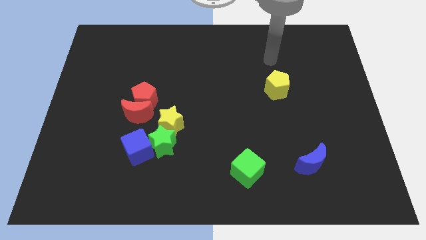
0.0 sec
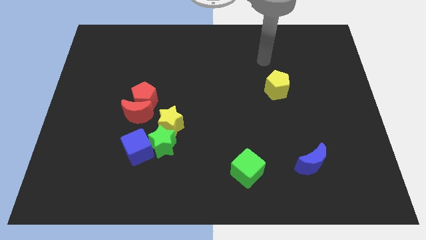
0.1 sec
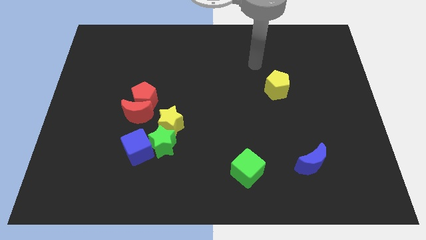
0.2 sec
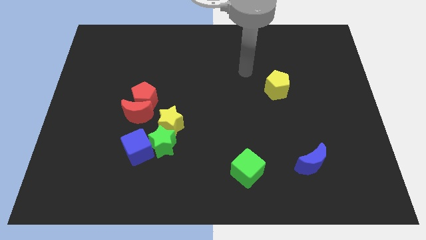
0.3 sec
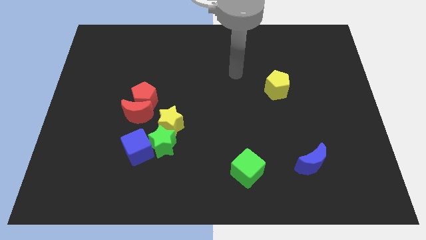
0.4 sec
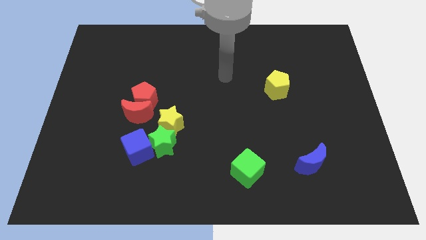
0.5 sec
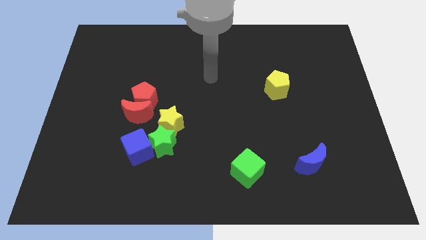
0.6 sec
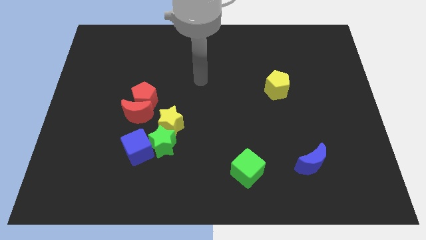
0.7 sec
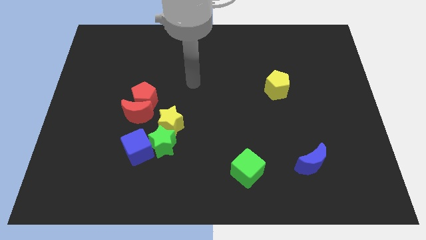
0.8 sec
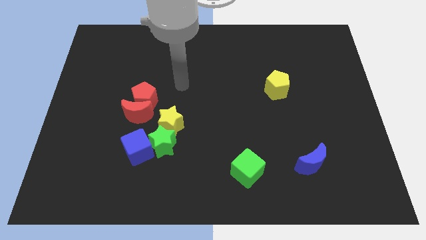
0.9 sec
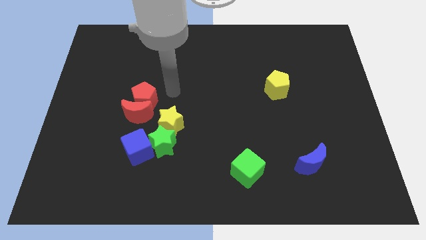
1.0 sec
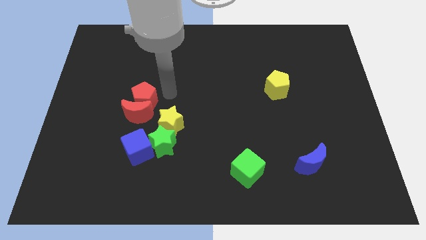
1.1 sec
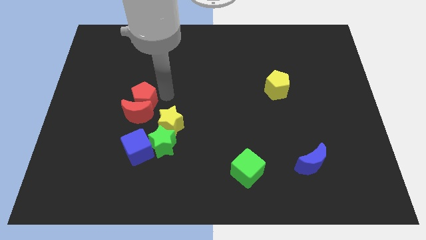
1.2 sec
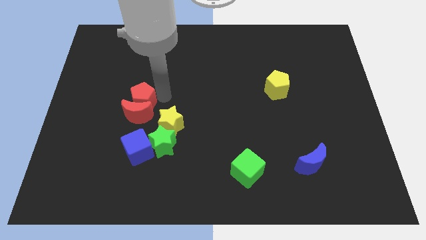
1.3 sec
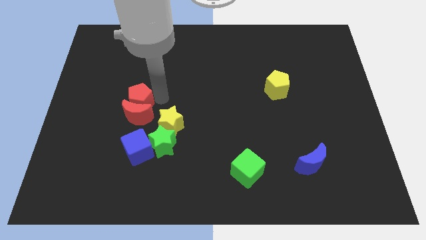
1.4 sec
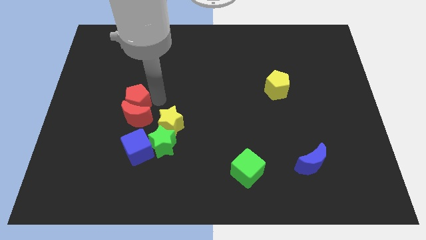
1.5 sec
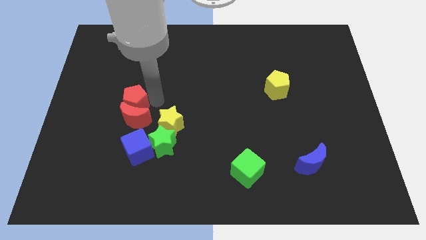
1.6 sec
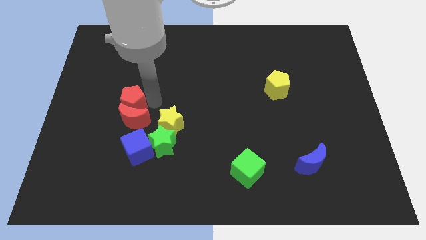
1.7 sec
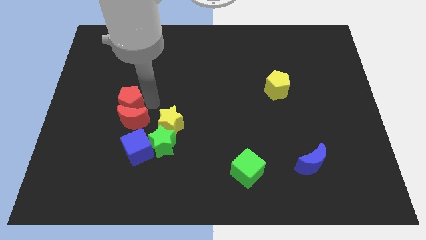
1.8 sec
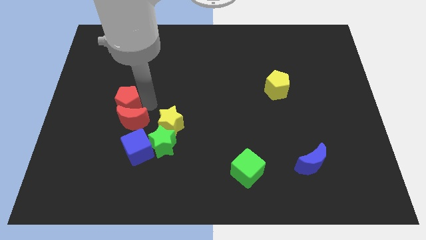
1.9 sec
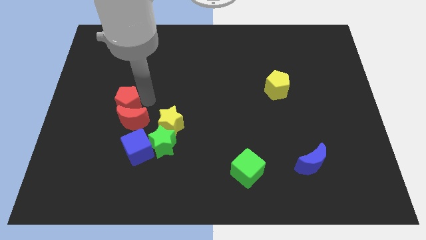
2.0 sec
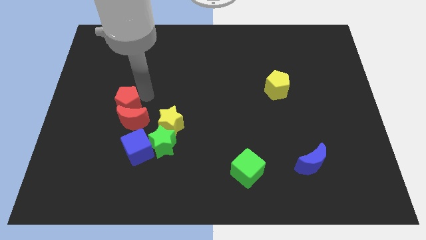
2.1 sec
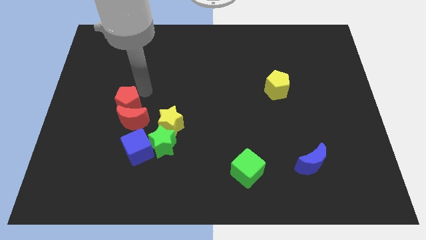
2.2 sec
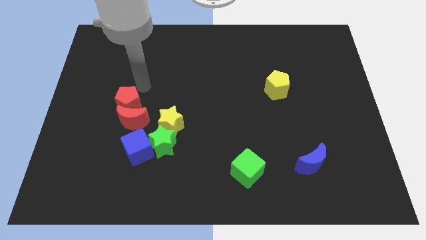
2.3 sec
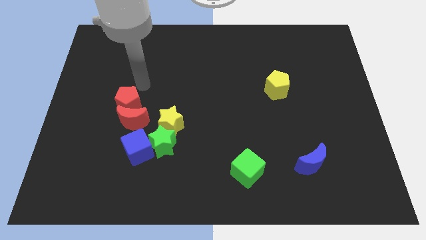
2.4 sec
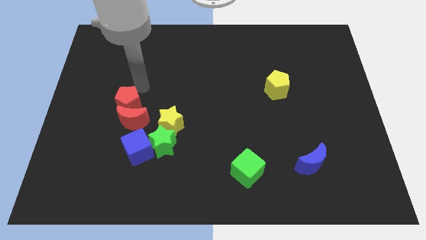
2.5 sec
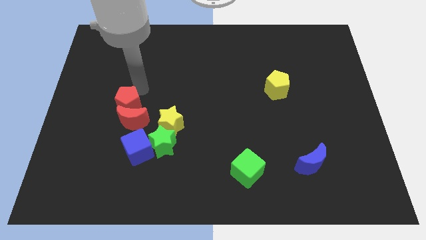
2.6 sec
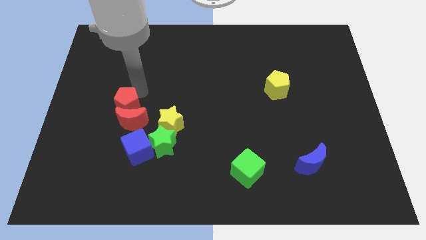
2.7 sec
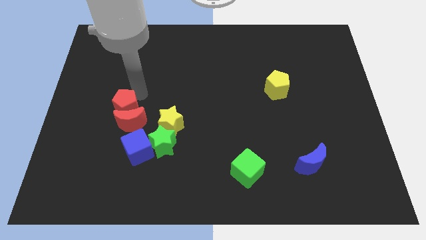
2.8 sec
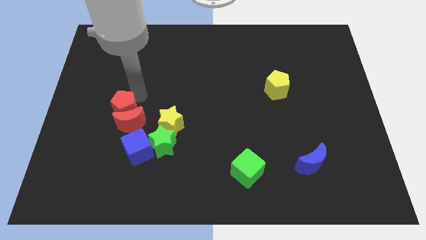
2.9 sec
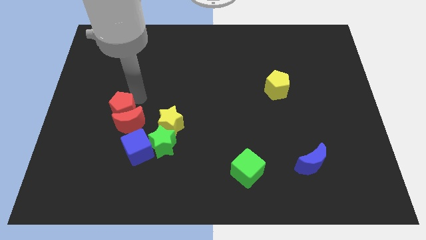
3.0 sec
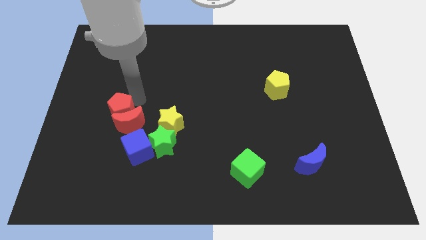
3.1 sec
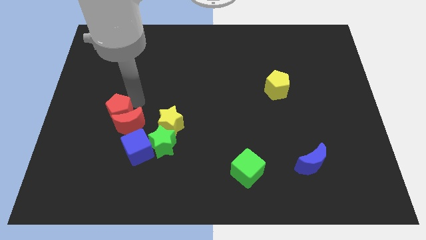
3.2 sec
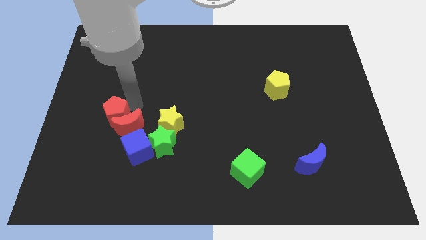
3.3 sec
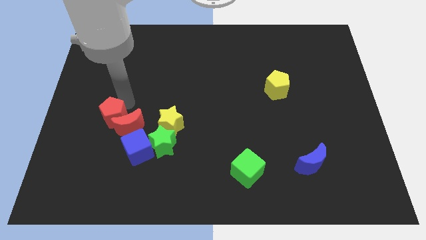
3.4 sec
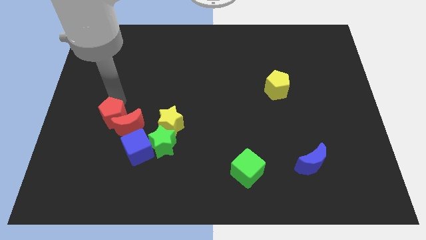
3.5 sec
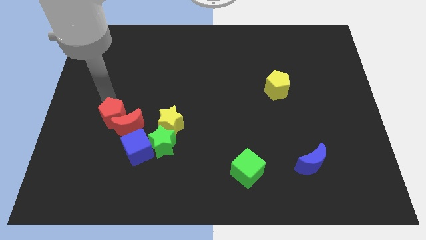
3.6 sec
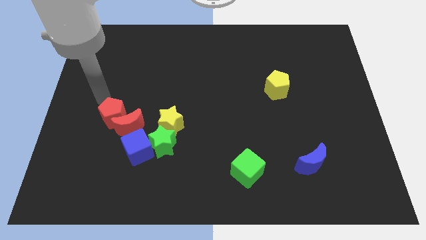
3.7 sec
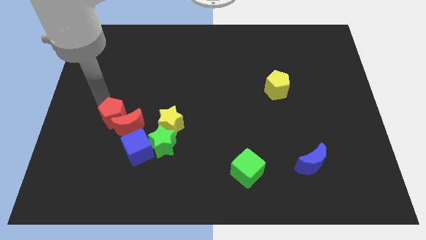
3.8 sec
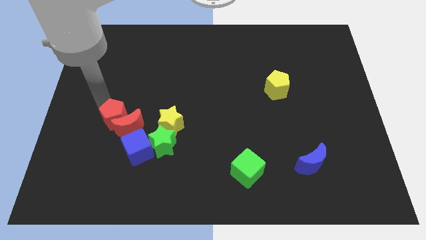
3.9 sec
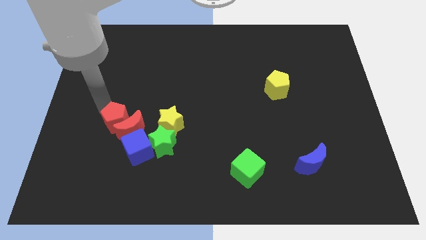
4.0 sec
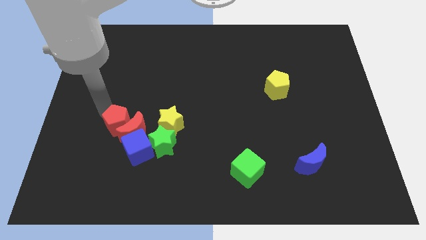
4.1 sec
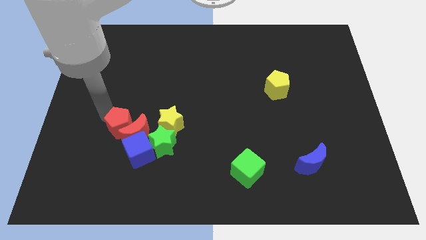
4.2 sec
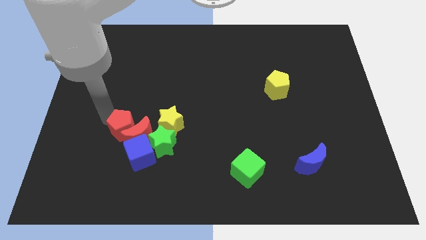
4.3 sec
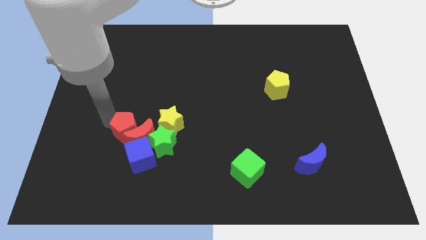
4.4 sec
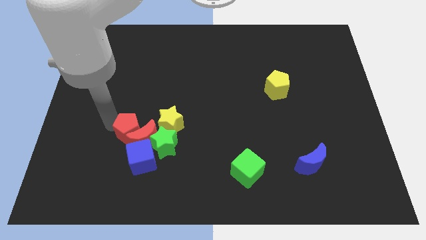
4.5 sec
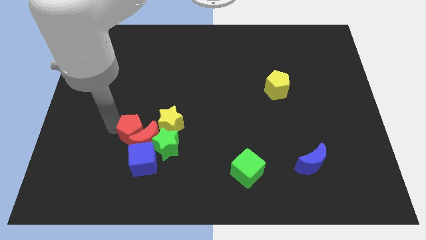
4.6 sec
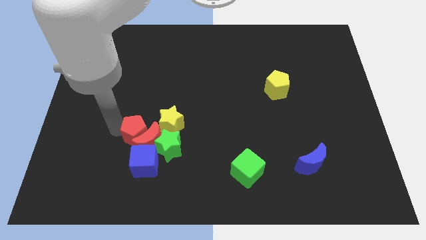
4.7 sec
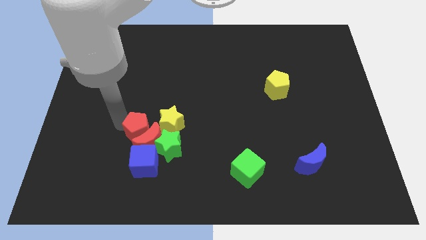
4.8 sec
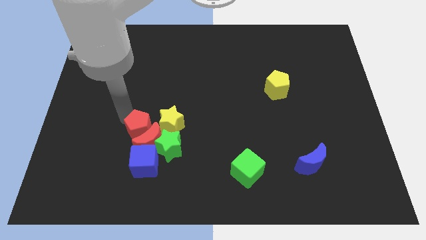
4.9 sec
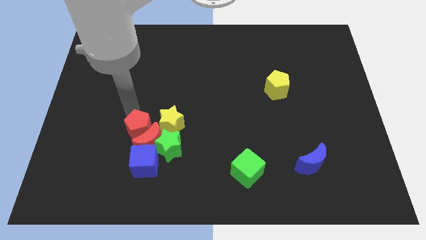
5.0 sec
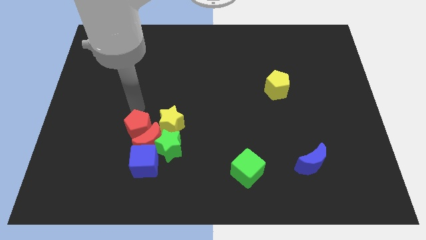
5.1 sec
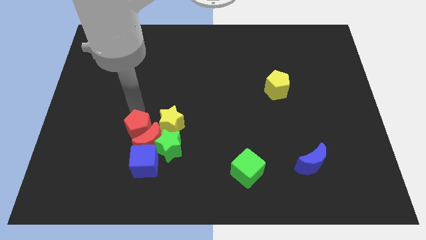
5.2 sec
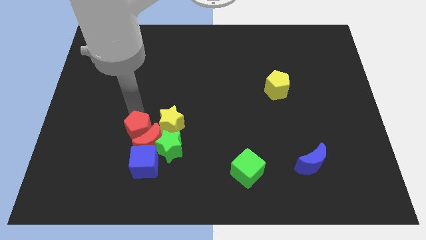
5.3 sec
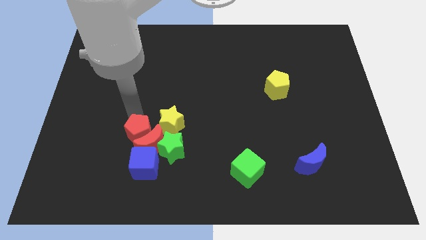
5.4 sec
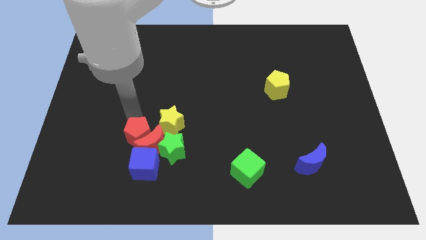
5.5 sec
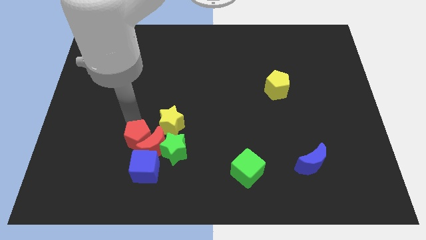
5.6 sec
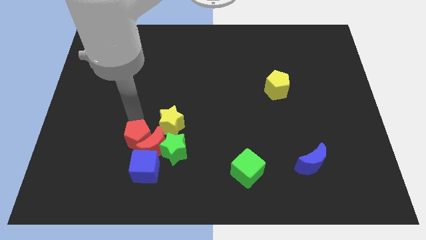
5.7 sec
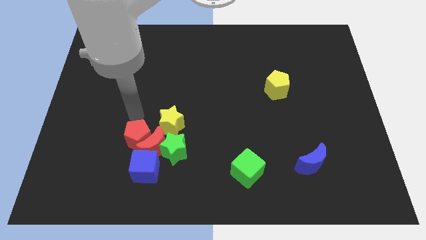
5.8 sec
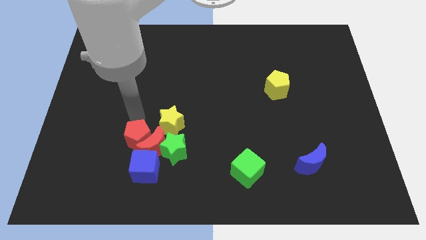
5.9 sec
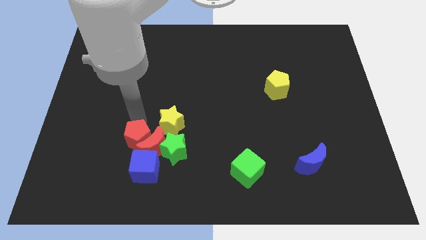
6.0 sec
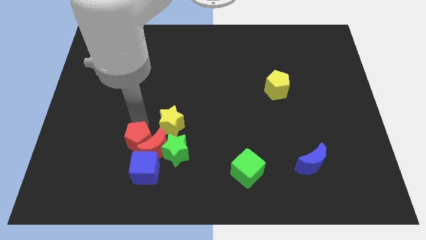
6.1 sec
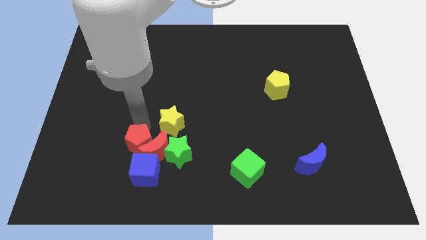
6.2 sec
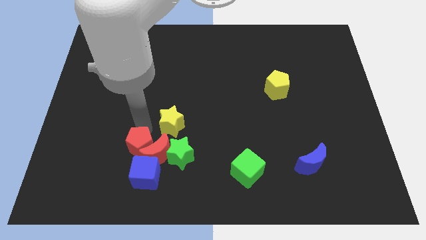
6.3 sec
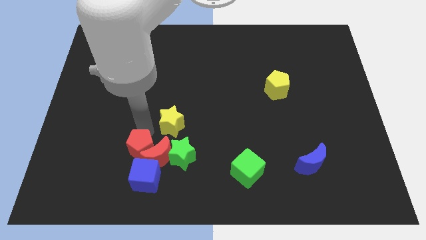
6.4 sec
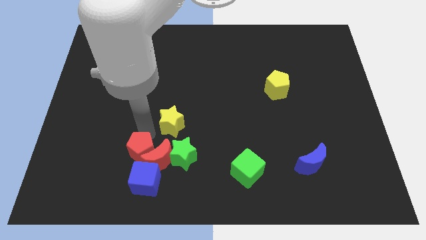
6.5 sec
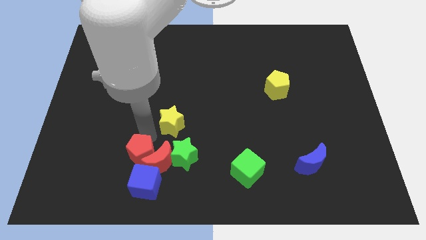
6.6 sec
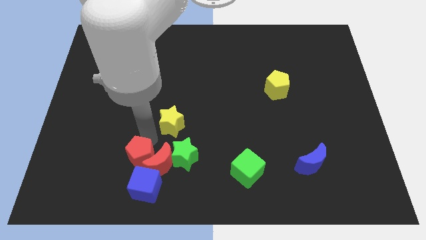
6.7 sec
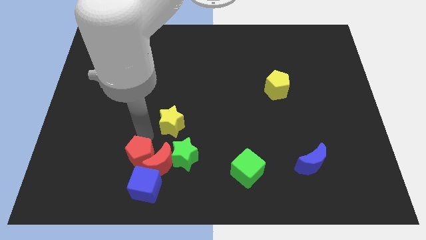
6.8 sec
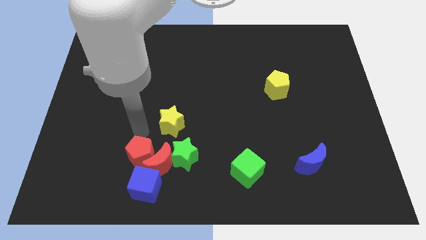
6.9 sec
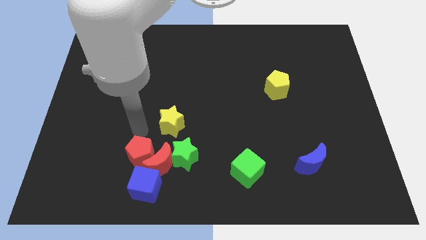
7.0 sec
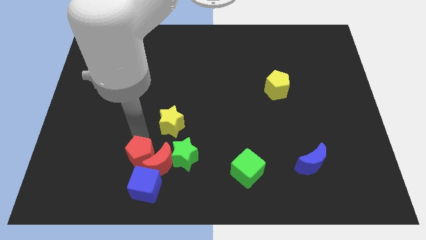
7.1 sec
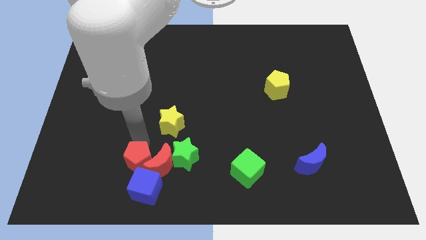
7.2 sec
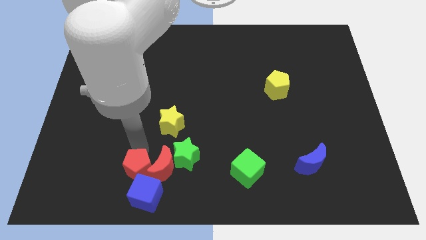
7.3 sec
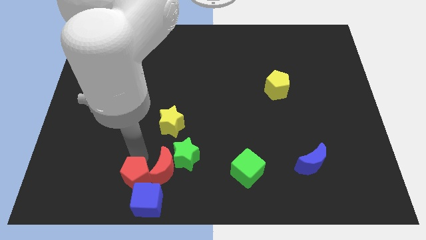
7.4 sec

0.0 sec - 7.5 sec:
move the red pentagon to the blue cube
